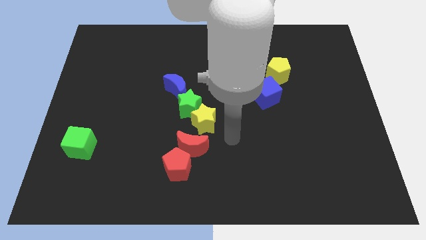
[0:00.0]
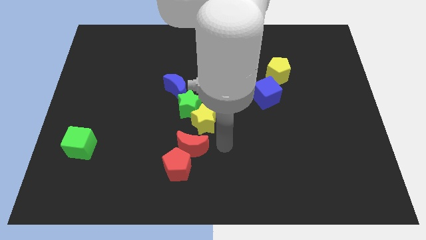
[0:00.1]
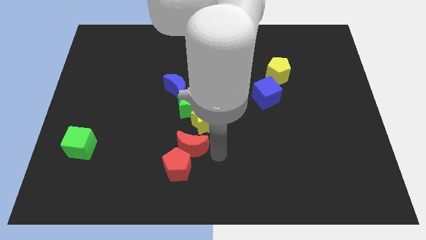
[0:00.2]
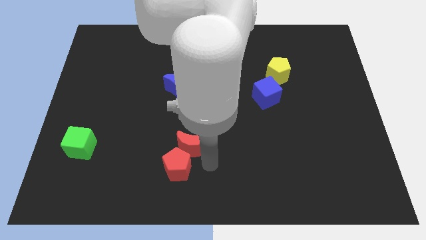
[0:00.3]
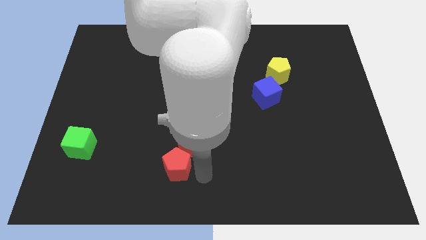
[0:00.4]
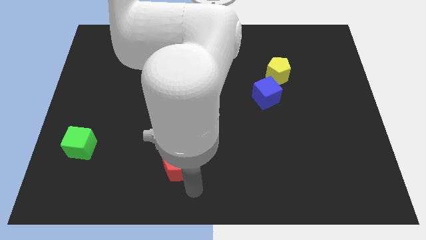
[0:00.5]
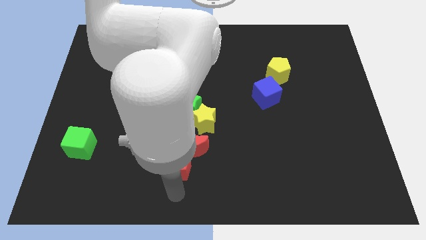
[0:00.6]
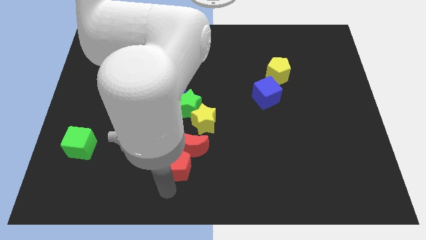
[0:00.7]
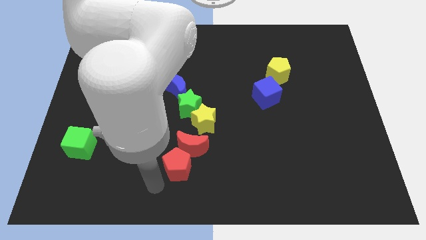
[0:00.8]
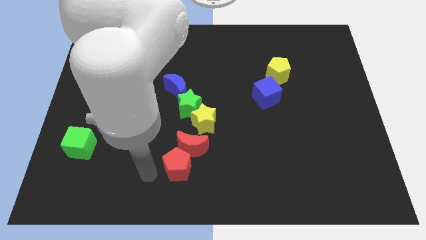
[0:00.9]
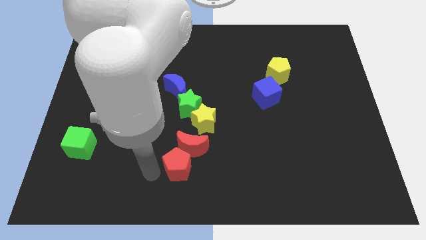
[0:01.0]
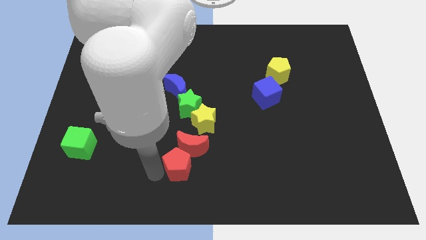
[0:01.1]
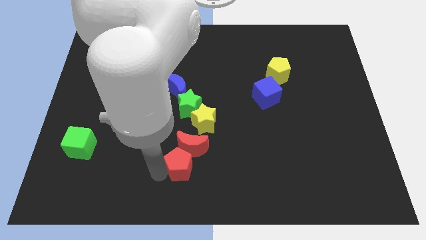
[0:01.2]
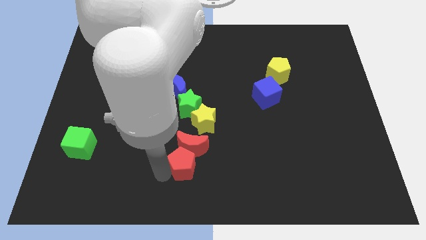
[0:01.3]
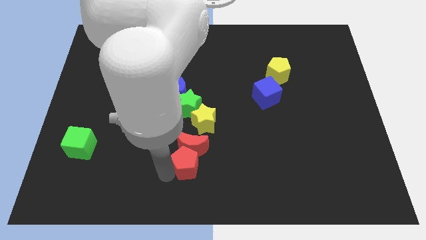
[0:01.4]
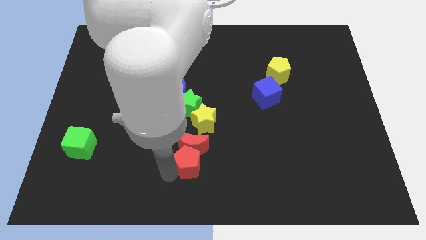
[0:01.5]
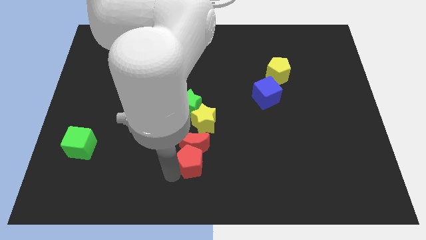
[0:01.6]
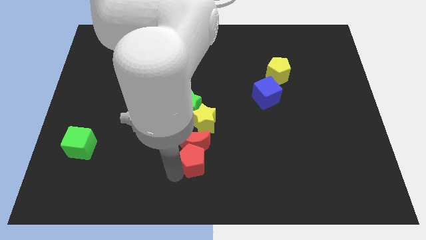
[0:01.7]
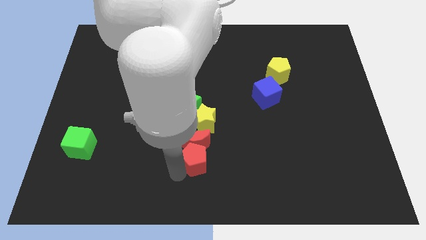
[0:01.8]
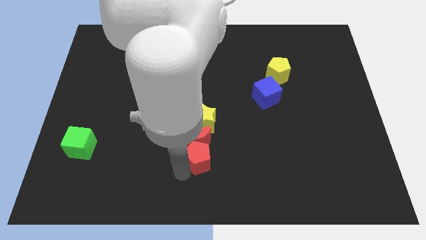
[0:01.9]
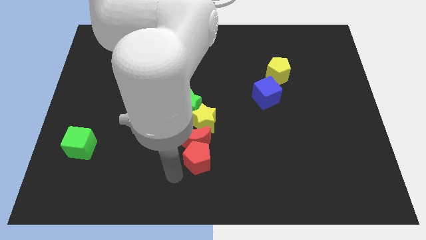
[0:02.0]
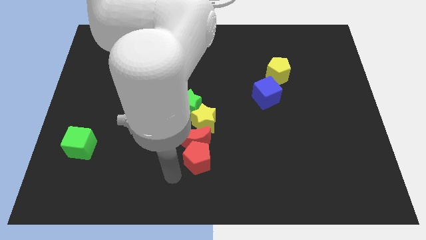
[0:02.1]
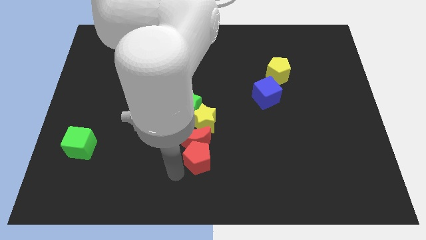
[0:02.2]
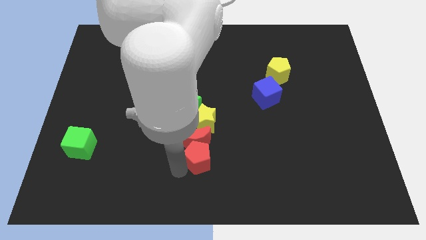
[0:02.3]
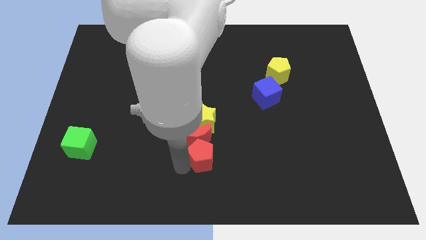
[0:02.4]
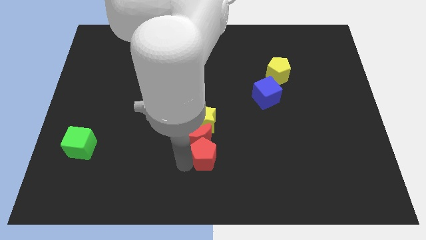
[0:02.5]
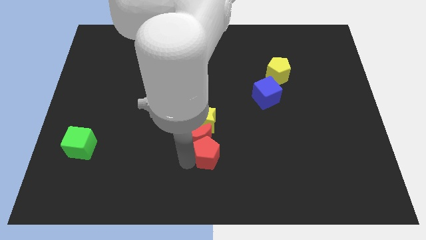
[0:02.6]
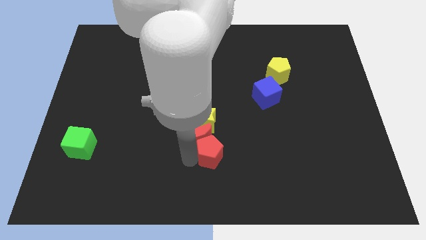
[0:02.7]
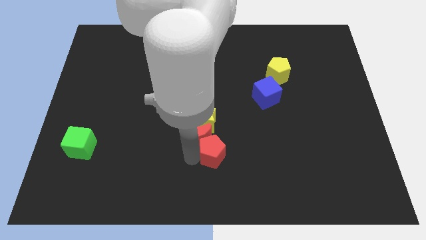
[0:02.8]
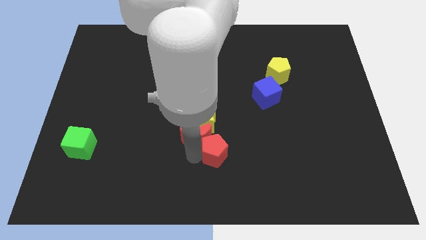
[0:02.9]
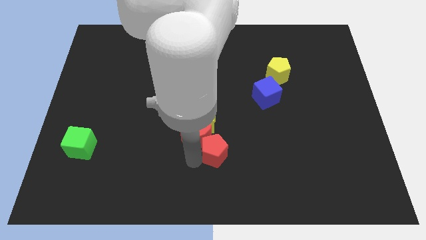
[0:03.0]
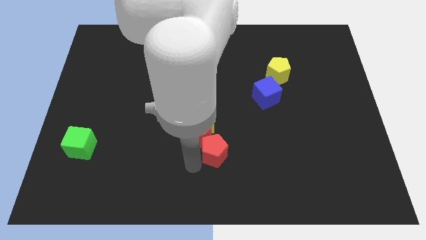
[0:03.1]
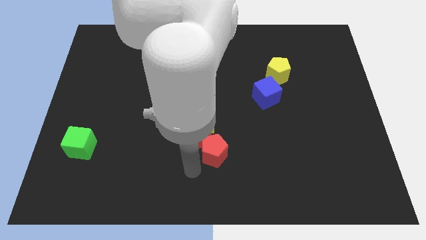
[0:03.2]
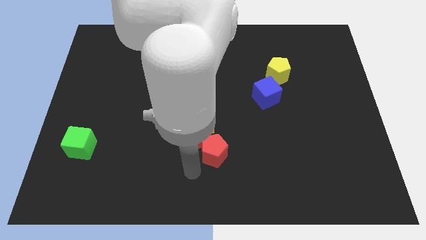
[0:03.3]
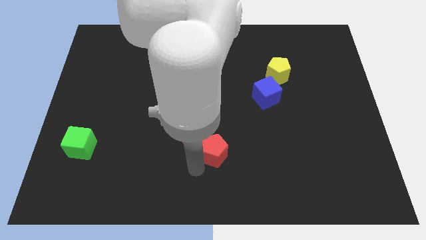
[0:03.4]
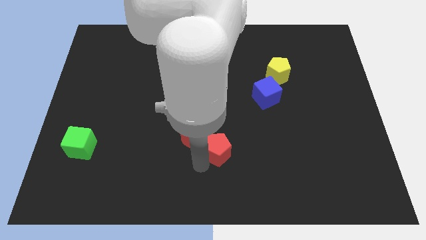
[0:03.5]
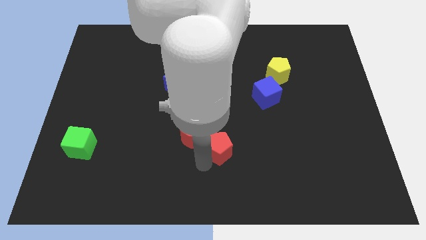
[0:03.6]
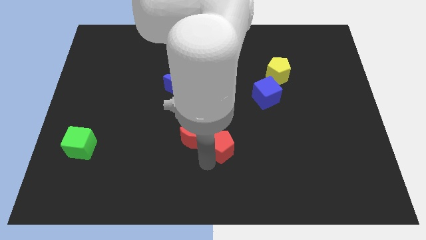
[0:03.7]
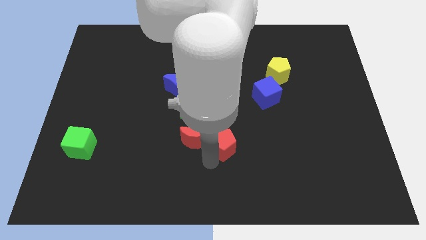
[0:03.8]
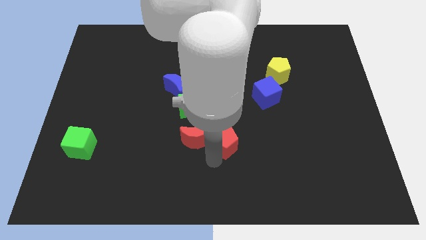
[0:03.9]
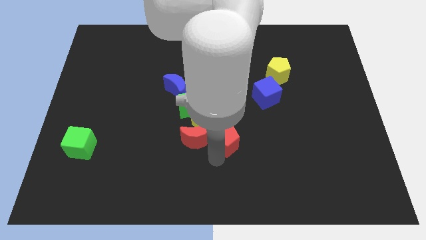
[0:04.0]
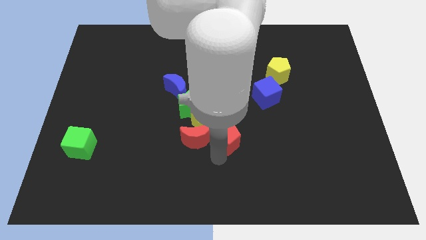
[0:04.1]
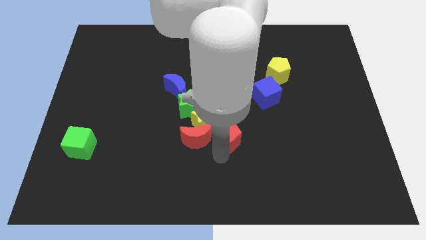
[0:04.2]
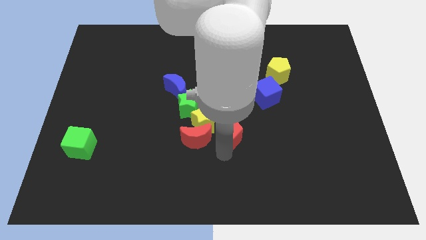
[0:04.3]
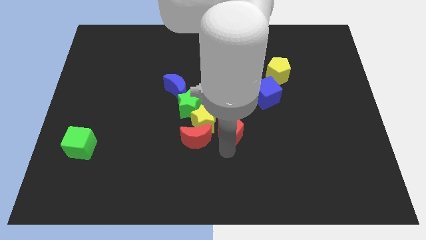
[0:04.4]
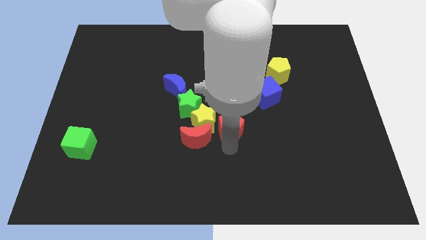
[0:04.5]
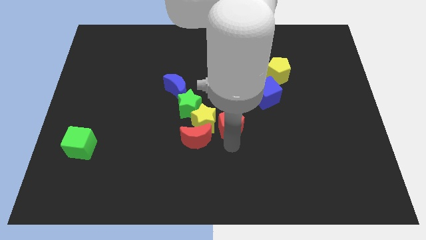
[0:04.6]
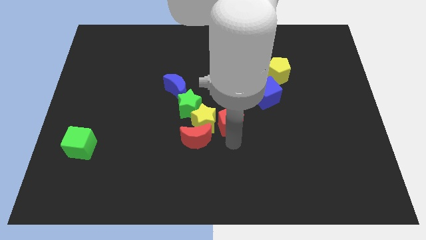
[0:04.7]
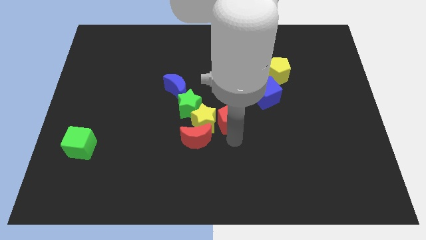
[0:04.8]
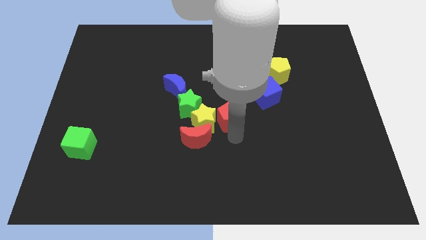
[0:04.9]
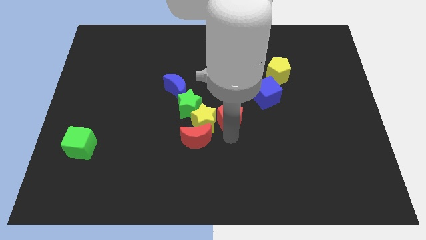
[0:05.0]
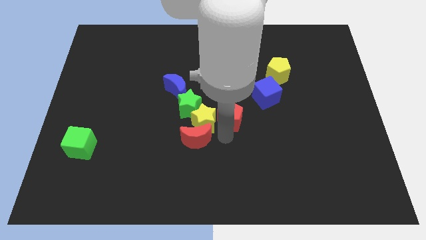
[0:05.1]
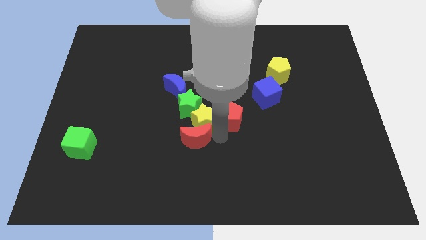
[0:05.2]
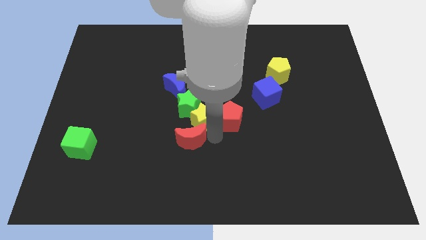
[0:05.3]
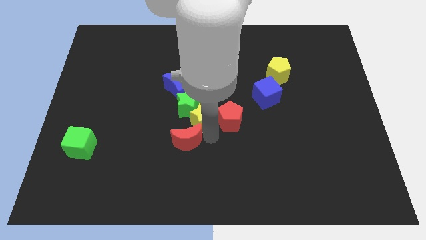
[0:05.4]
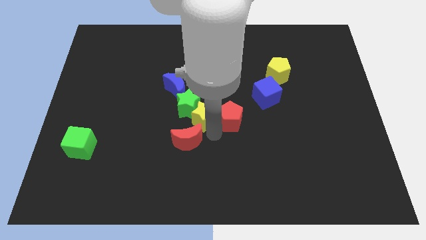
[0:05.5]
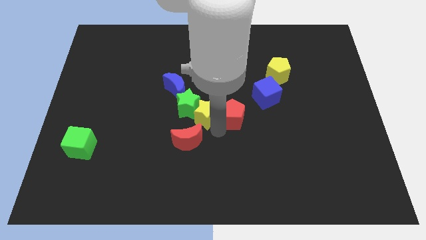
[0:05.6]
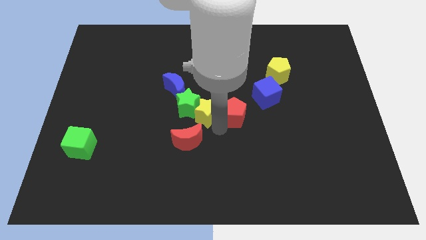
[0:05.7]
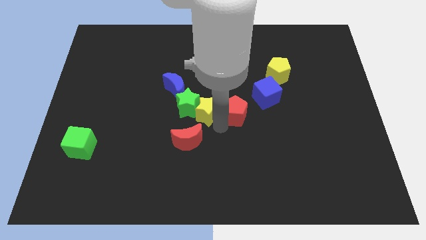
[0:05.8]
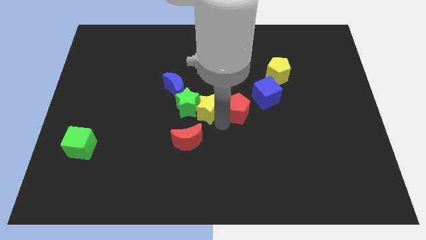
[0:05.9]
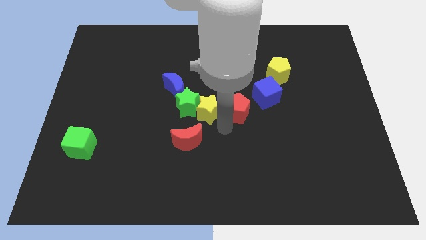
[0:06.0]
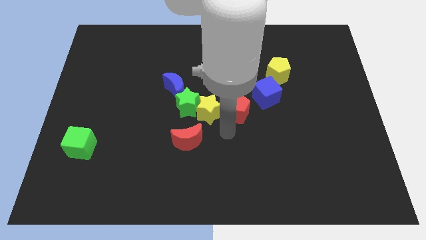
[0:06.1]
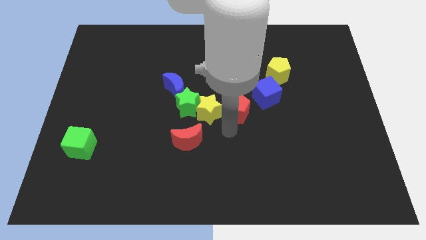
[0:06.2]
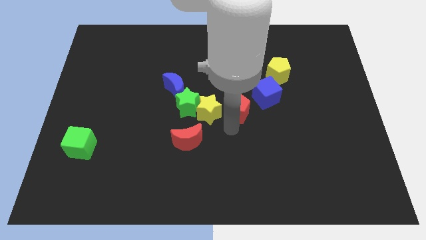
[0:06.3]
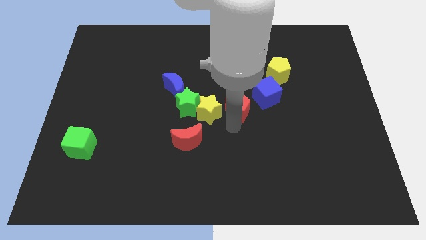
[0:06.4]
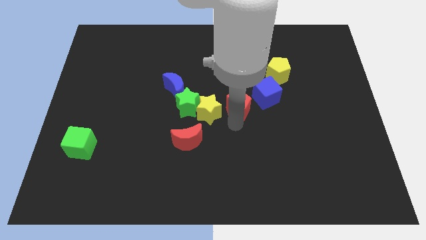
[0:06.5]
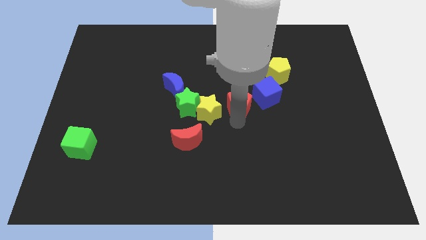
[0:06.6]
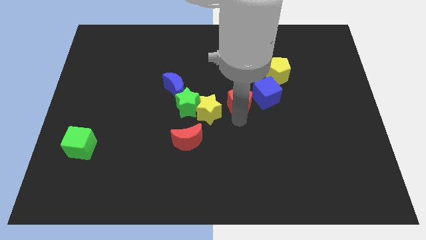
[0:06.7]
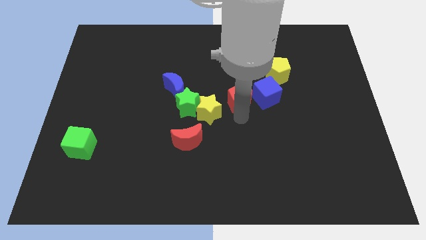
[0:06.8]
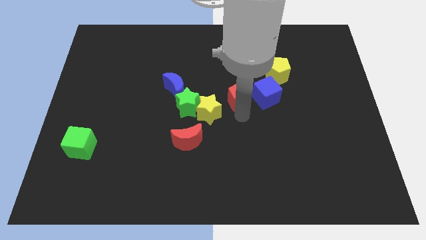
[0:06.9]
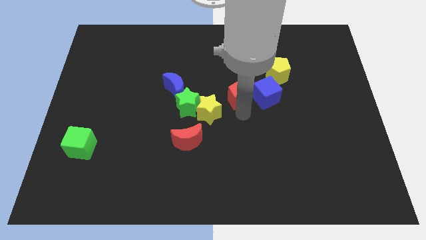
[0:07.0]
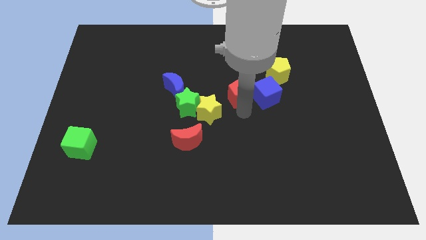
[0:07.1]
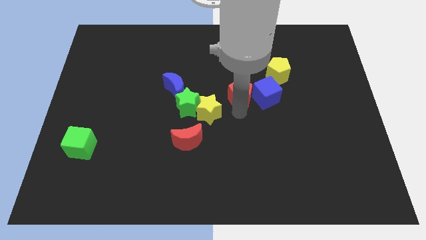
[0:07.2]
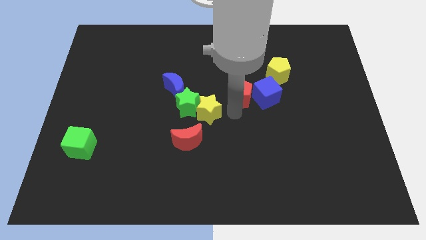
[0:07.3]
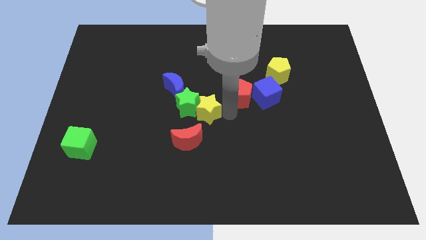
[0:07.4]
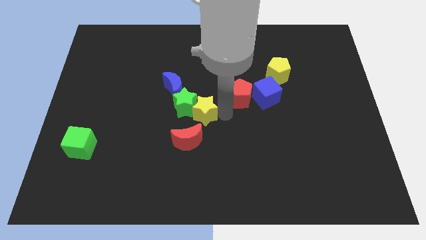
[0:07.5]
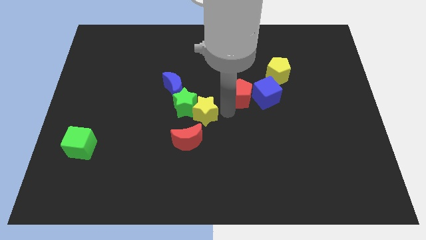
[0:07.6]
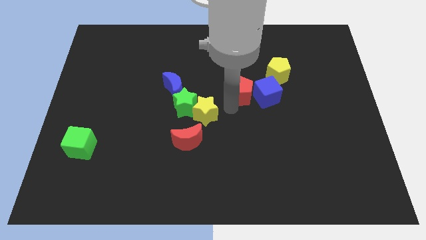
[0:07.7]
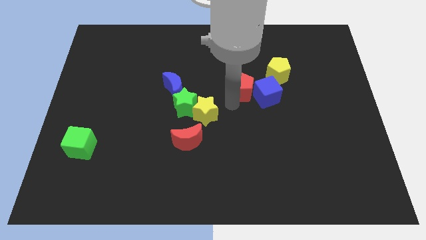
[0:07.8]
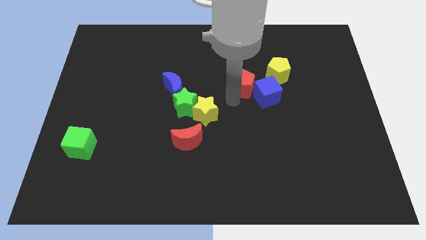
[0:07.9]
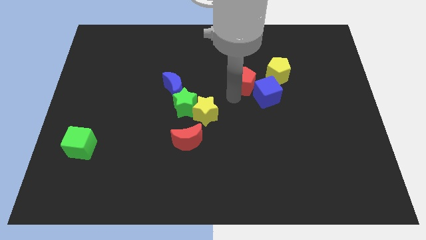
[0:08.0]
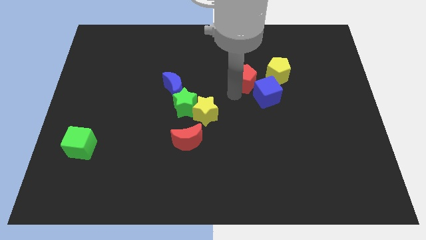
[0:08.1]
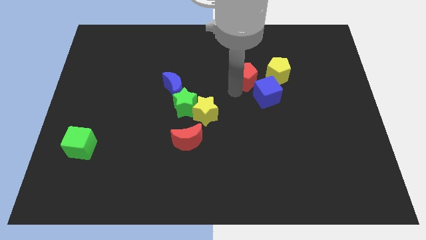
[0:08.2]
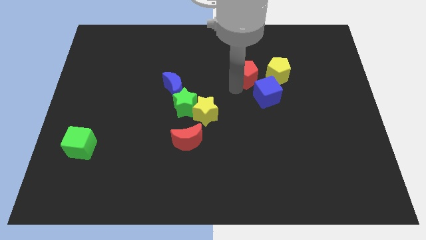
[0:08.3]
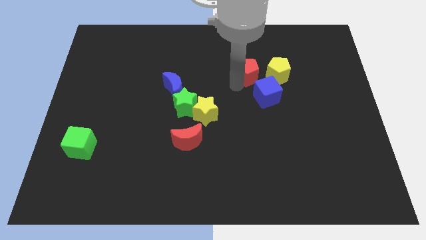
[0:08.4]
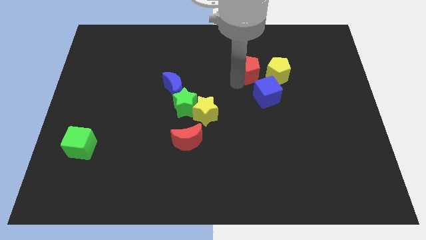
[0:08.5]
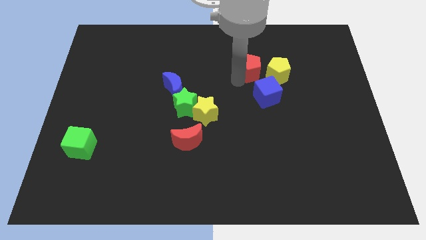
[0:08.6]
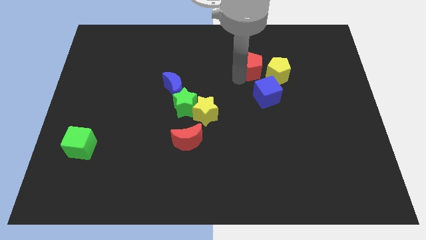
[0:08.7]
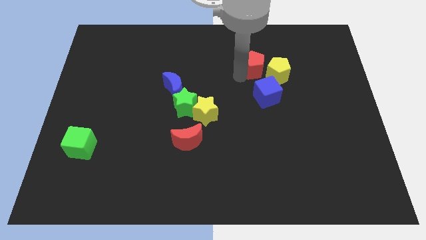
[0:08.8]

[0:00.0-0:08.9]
push the red pentagon next to the yellow pentagon
